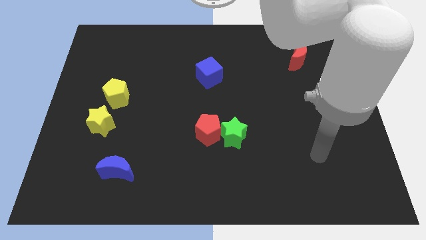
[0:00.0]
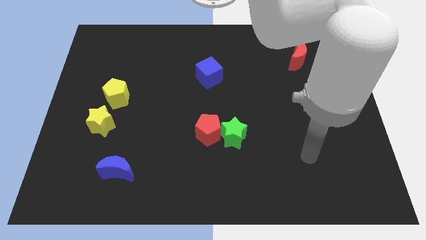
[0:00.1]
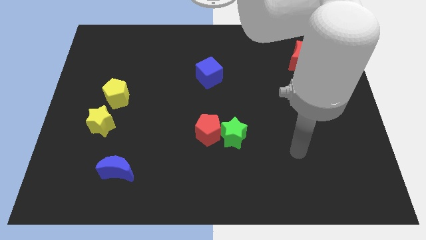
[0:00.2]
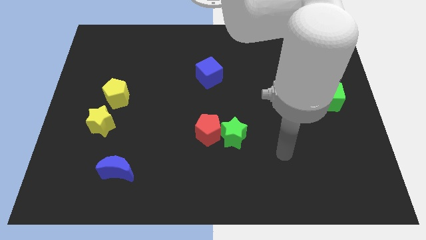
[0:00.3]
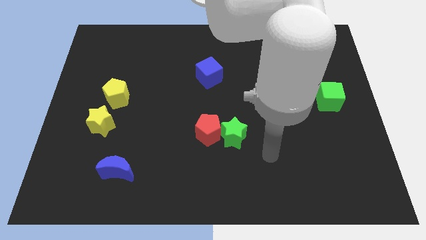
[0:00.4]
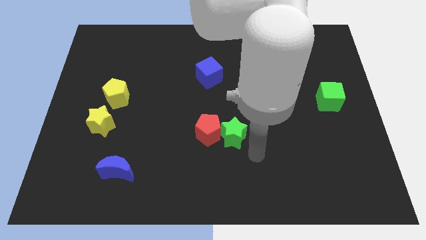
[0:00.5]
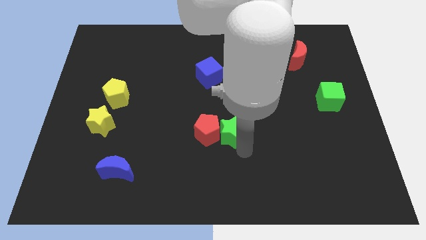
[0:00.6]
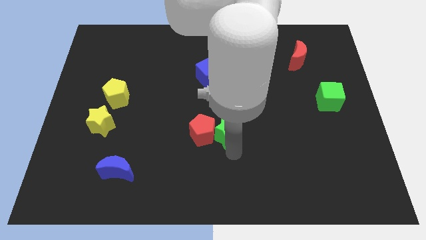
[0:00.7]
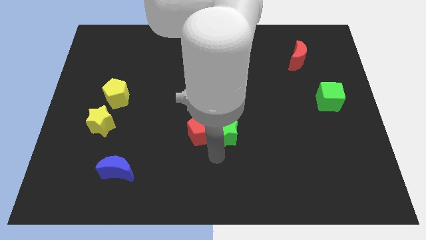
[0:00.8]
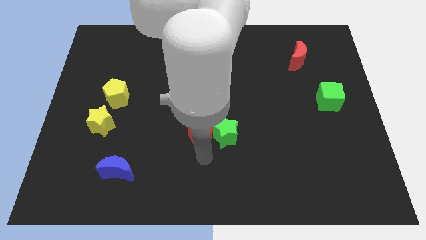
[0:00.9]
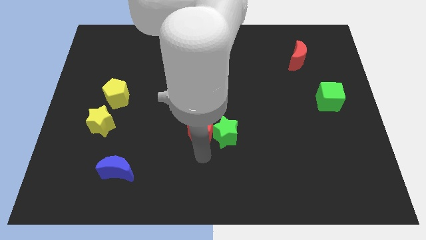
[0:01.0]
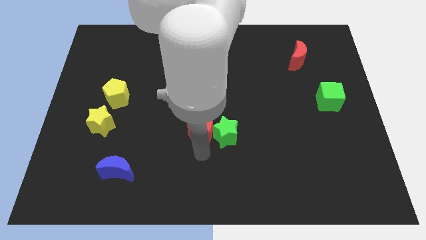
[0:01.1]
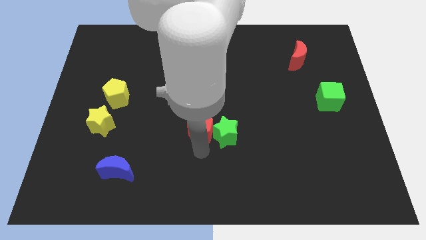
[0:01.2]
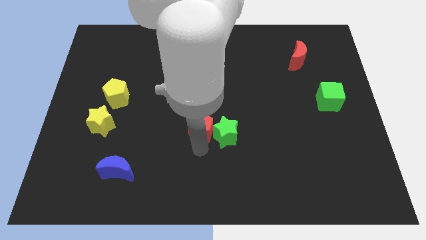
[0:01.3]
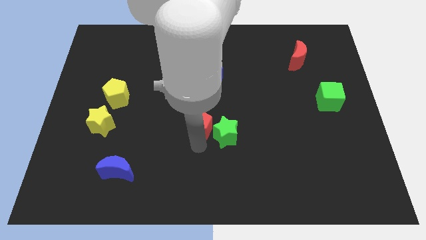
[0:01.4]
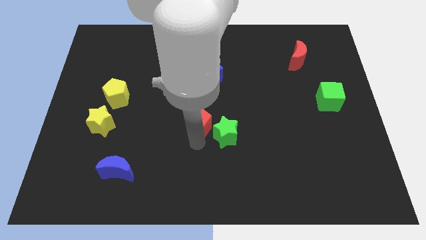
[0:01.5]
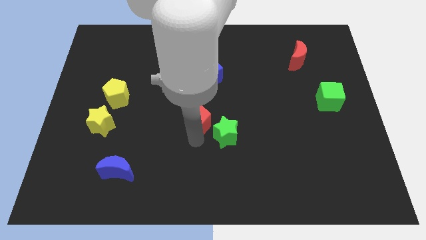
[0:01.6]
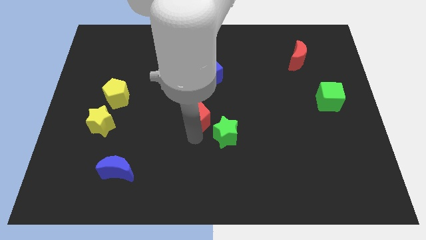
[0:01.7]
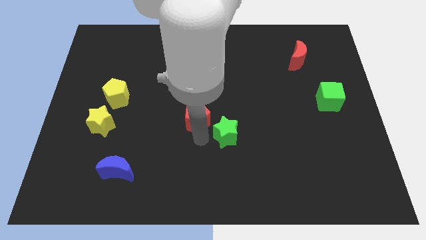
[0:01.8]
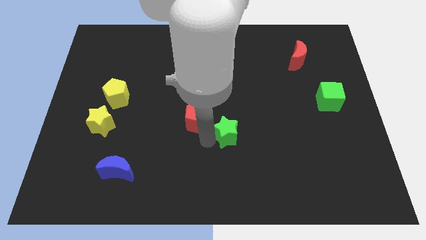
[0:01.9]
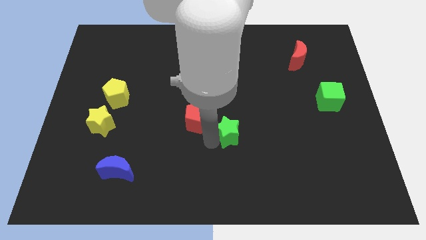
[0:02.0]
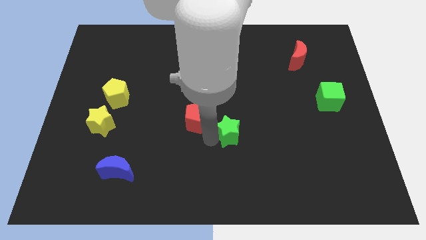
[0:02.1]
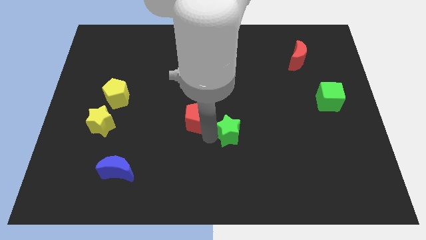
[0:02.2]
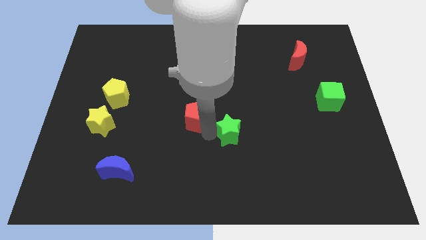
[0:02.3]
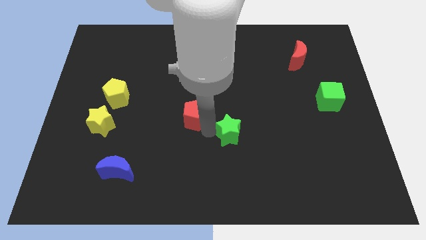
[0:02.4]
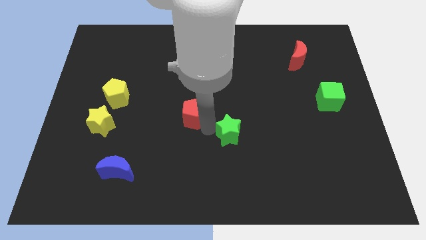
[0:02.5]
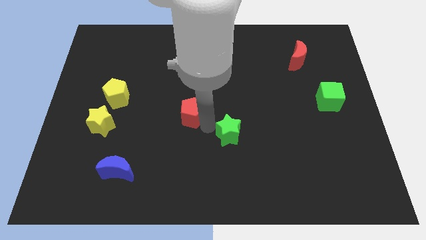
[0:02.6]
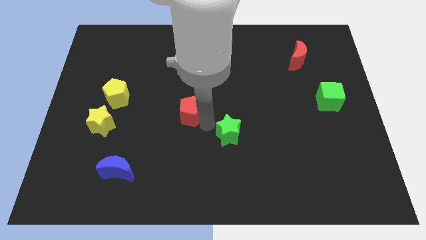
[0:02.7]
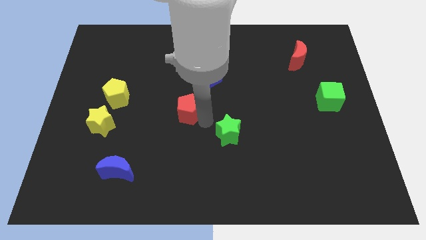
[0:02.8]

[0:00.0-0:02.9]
push the red pentagon slightly up and to the left

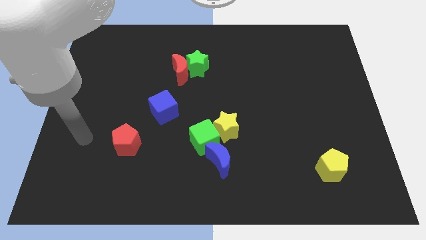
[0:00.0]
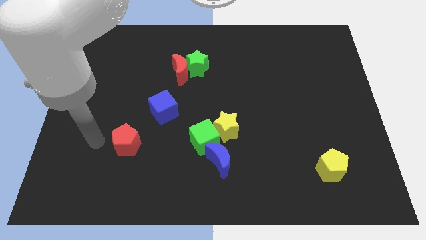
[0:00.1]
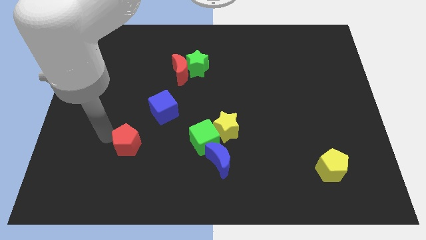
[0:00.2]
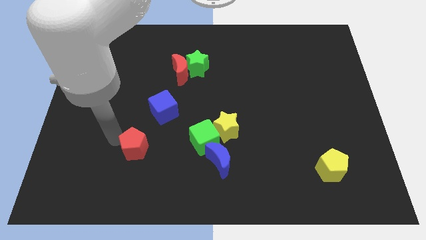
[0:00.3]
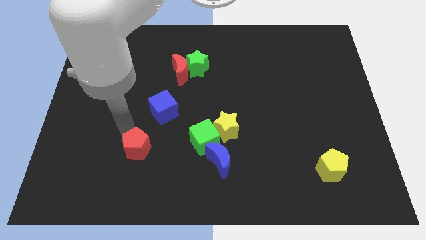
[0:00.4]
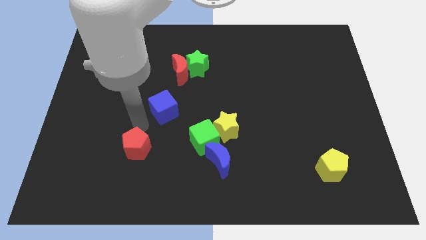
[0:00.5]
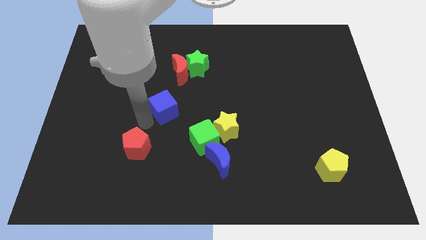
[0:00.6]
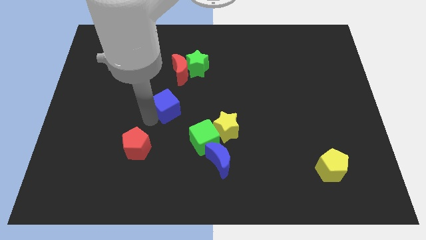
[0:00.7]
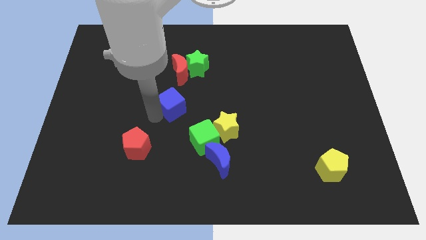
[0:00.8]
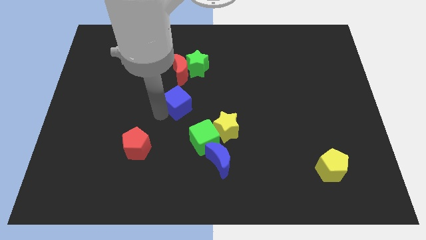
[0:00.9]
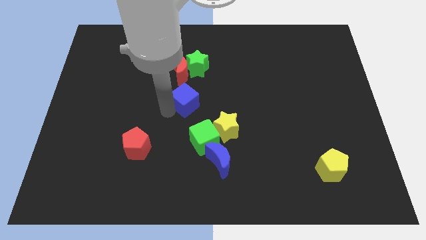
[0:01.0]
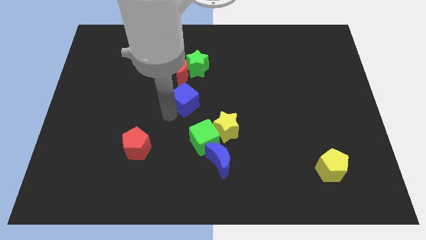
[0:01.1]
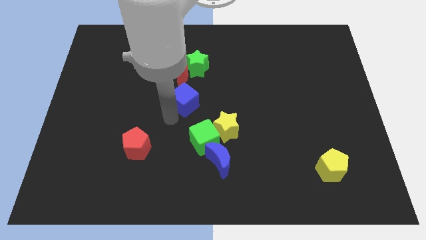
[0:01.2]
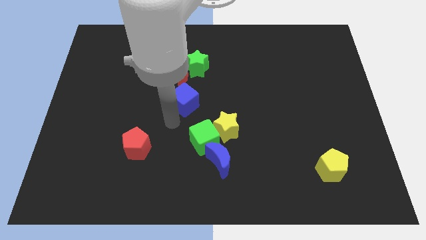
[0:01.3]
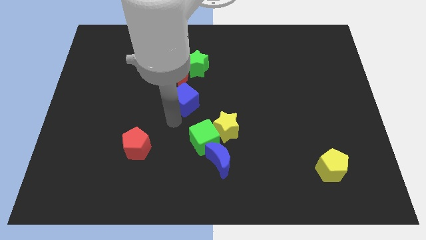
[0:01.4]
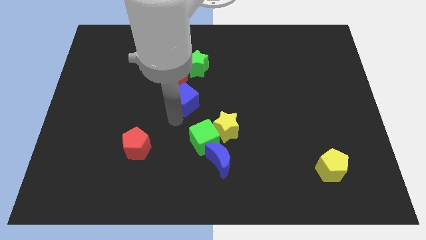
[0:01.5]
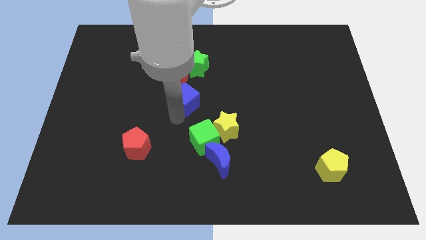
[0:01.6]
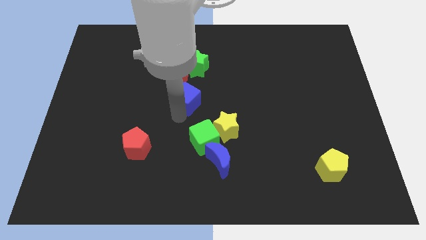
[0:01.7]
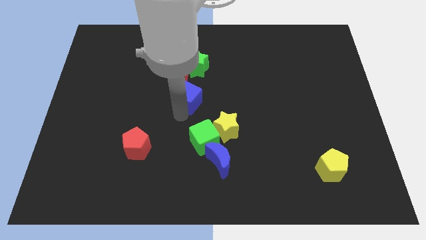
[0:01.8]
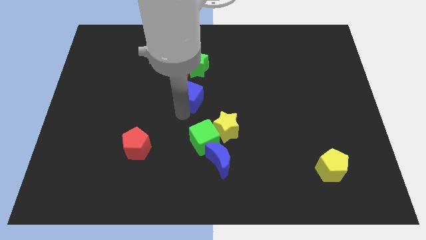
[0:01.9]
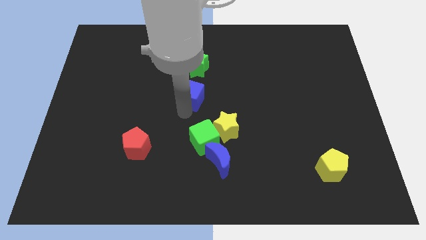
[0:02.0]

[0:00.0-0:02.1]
slightly slide the blue cube diagonally up and to the right

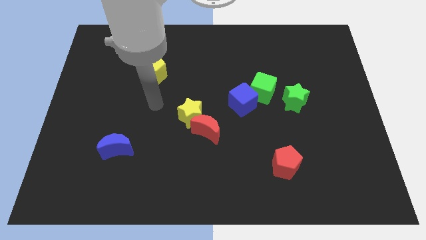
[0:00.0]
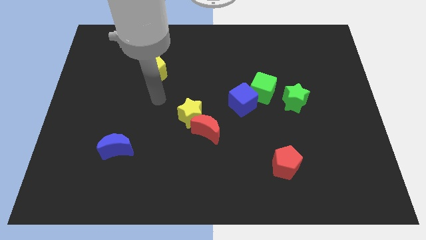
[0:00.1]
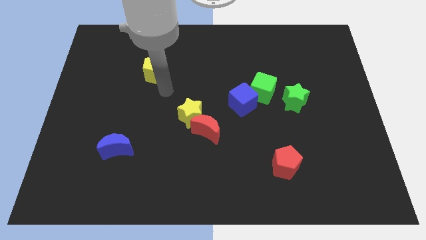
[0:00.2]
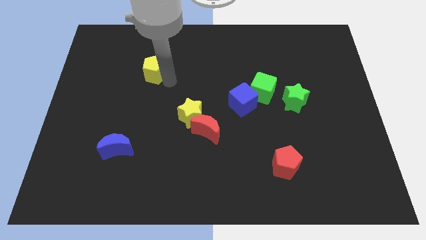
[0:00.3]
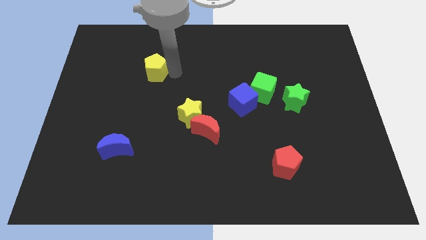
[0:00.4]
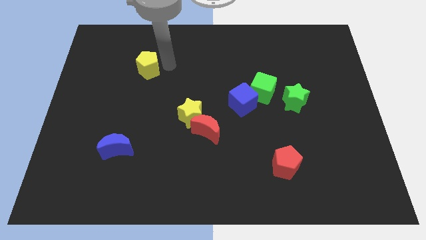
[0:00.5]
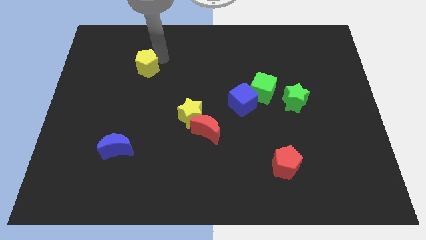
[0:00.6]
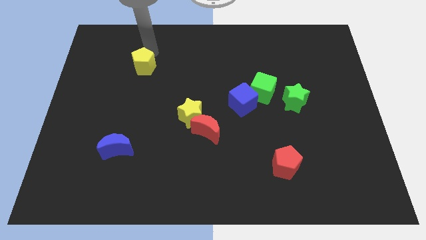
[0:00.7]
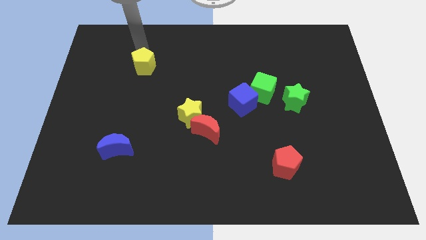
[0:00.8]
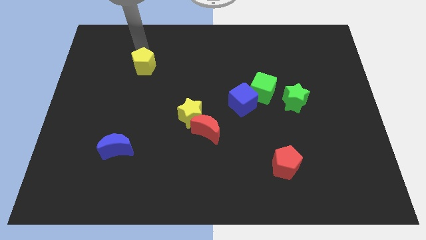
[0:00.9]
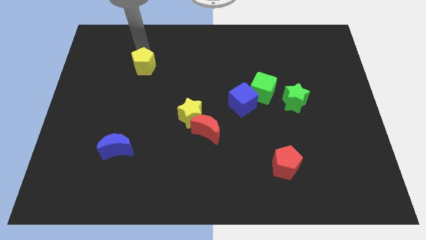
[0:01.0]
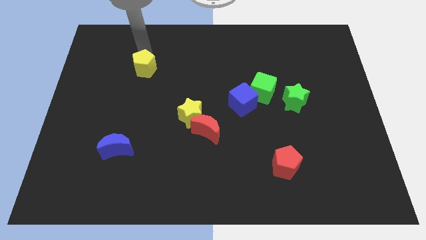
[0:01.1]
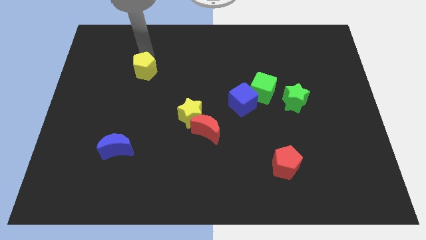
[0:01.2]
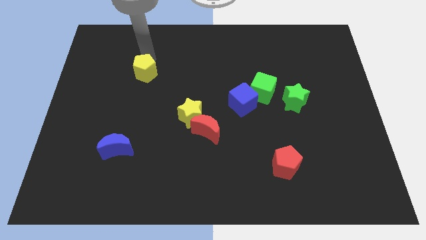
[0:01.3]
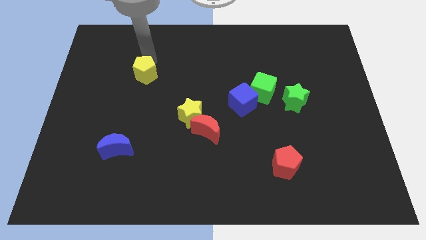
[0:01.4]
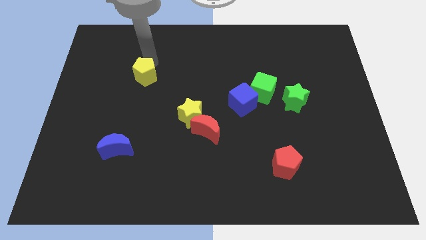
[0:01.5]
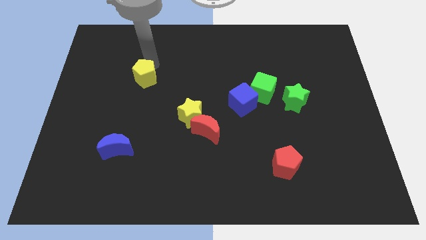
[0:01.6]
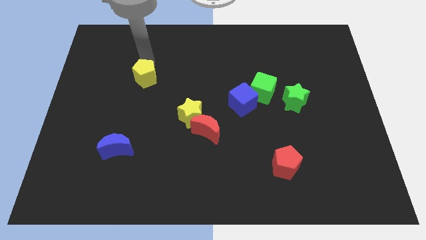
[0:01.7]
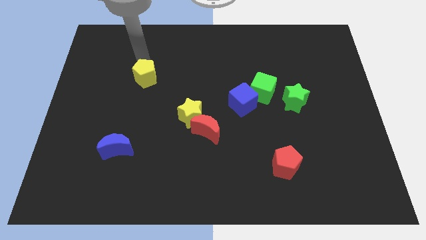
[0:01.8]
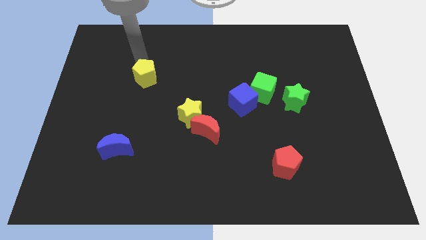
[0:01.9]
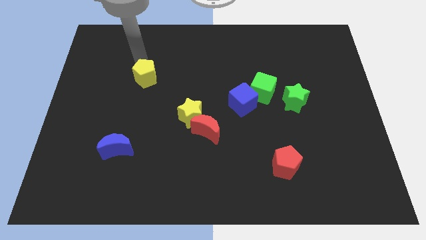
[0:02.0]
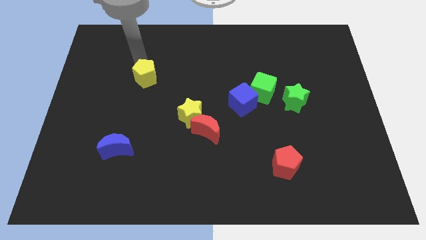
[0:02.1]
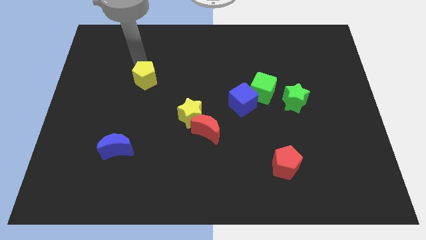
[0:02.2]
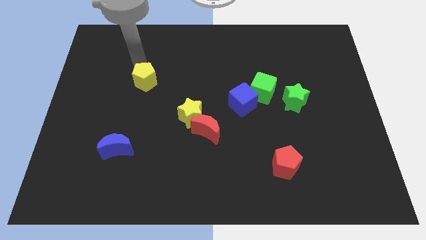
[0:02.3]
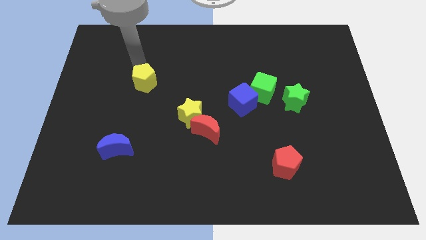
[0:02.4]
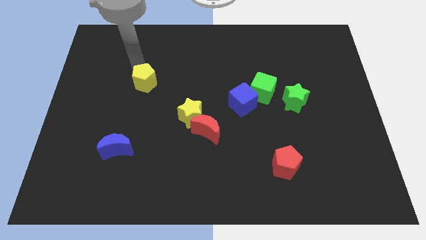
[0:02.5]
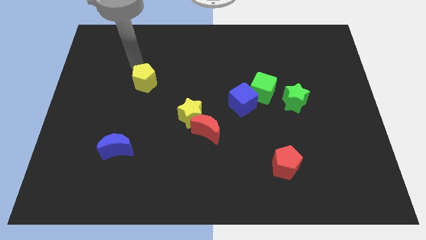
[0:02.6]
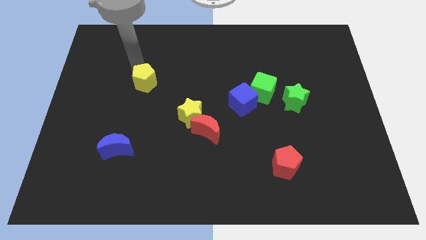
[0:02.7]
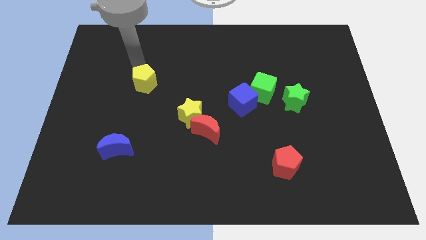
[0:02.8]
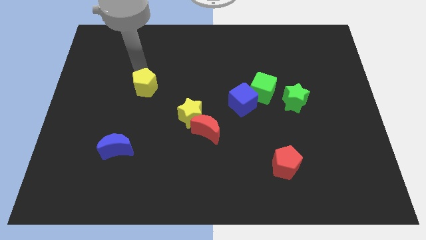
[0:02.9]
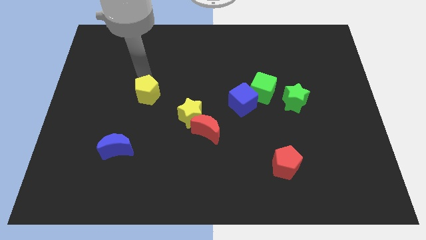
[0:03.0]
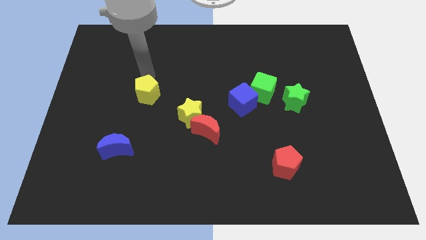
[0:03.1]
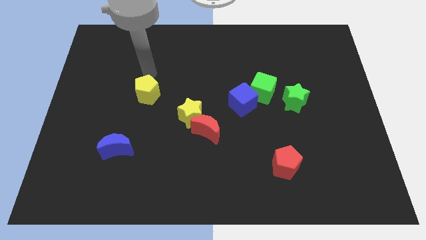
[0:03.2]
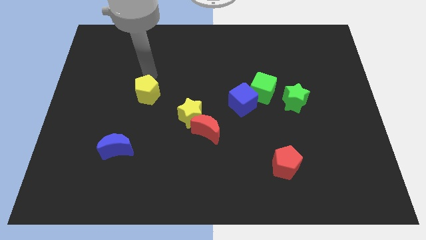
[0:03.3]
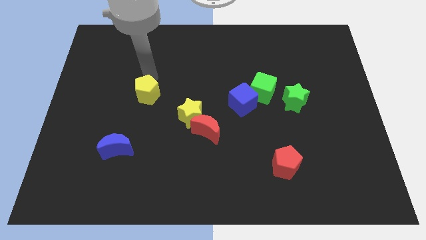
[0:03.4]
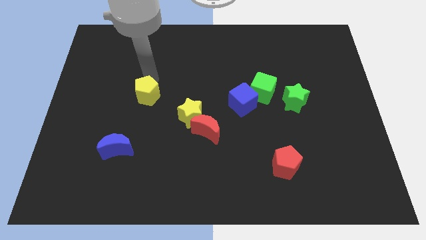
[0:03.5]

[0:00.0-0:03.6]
push the yellow pentagon downwards a little
